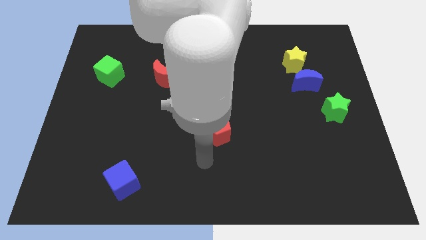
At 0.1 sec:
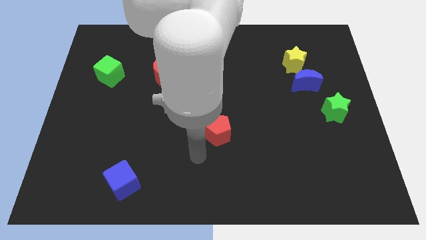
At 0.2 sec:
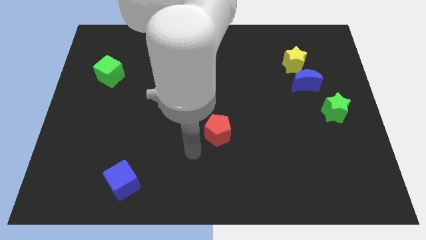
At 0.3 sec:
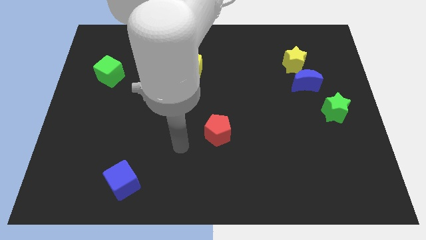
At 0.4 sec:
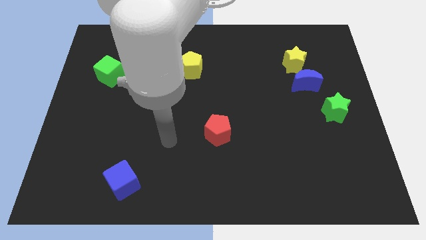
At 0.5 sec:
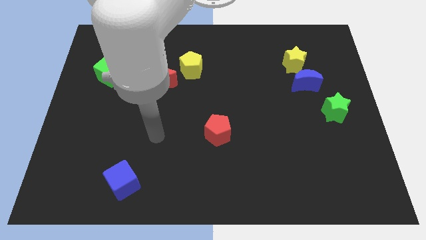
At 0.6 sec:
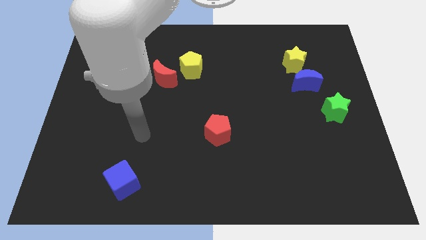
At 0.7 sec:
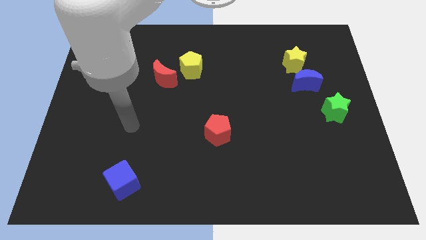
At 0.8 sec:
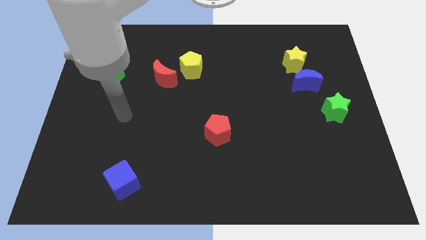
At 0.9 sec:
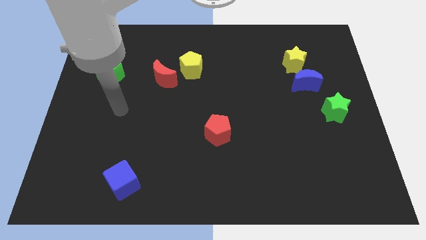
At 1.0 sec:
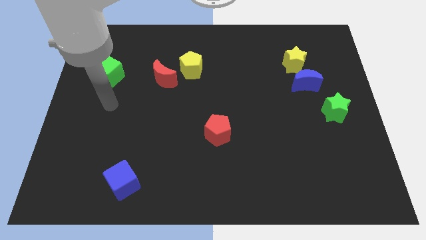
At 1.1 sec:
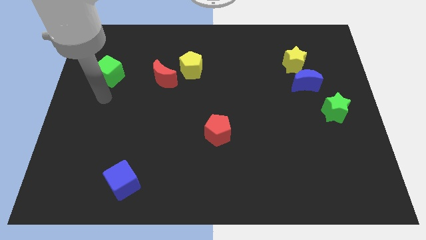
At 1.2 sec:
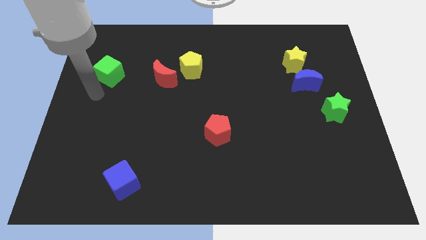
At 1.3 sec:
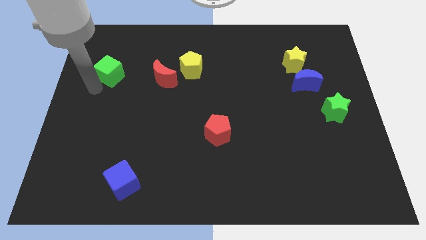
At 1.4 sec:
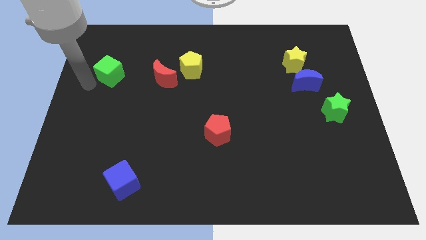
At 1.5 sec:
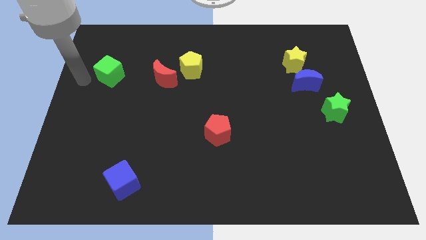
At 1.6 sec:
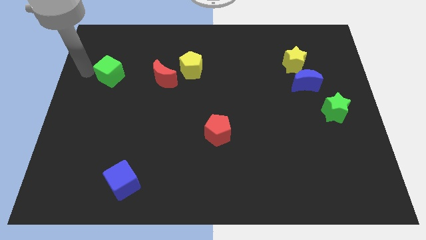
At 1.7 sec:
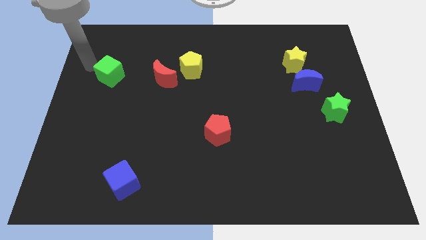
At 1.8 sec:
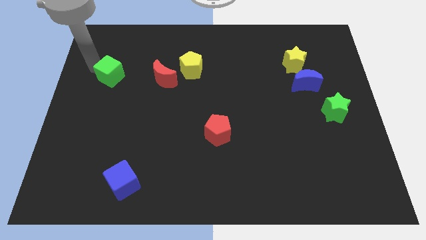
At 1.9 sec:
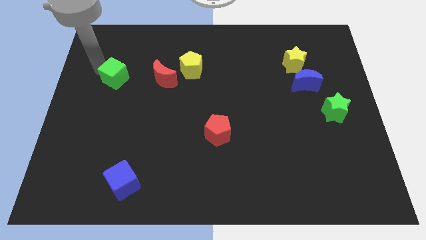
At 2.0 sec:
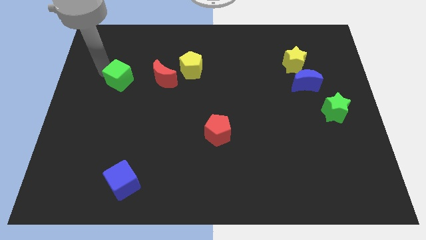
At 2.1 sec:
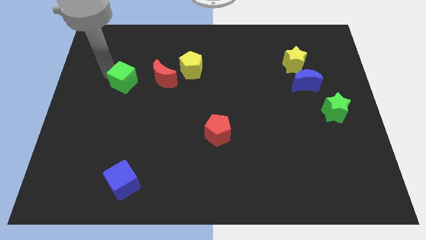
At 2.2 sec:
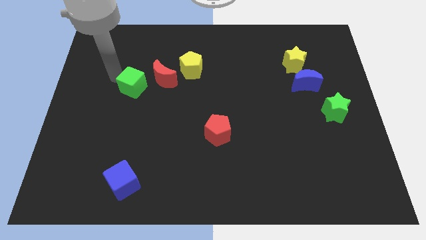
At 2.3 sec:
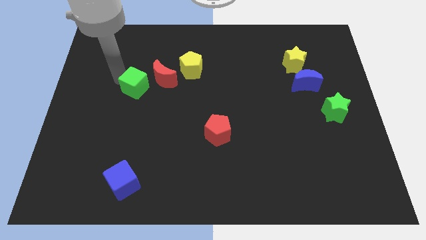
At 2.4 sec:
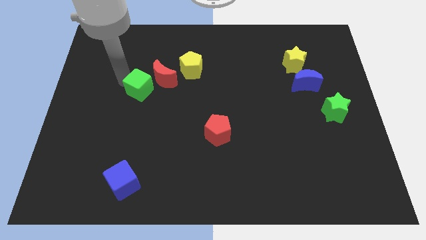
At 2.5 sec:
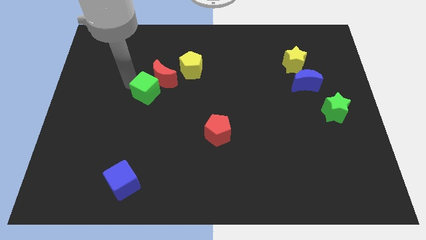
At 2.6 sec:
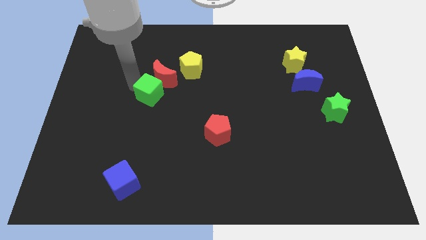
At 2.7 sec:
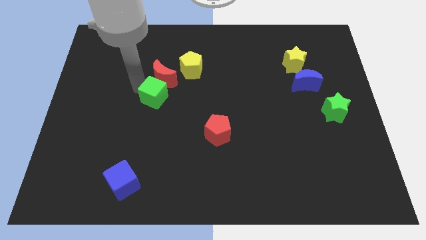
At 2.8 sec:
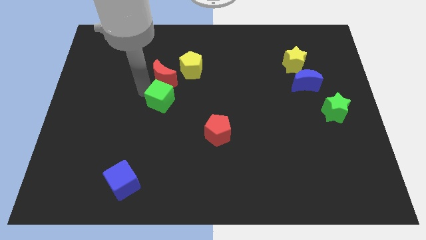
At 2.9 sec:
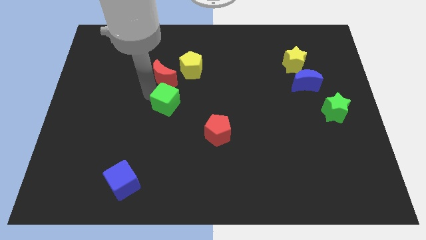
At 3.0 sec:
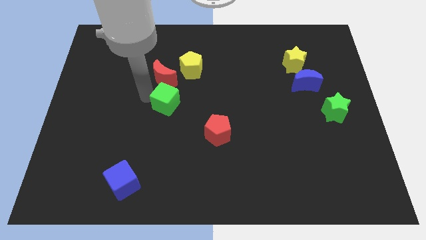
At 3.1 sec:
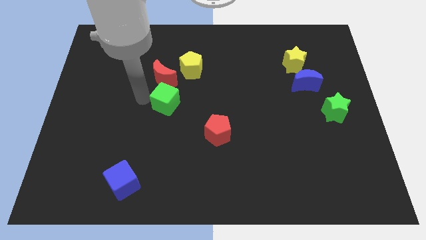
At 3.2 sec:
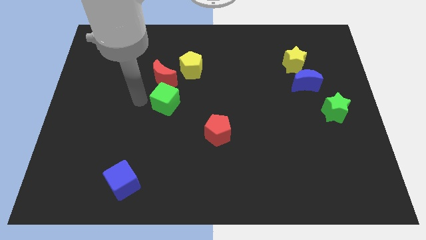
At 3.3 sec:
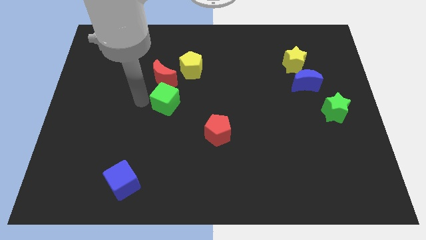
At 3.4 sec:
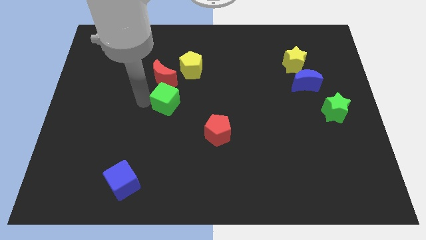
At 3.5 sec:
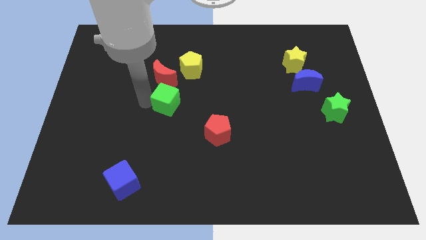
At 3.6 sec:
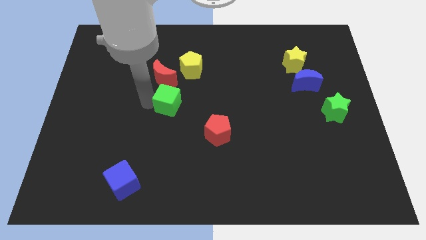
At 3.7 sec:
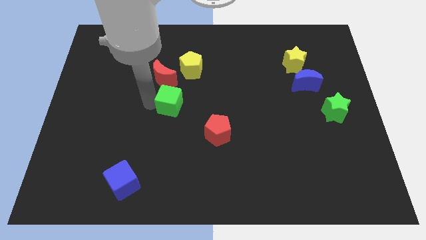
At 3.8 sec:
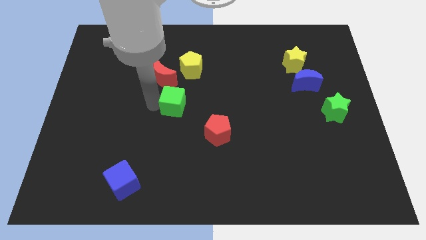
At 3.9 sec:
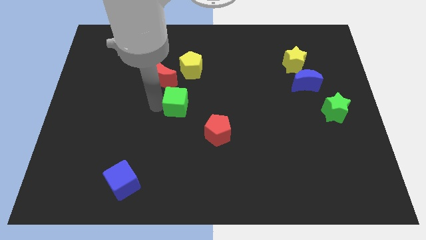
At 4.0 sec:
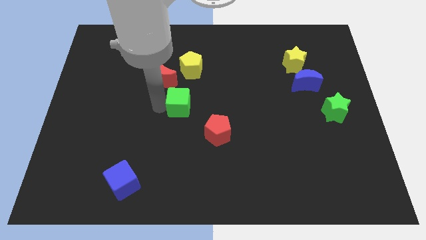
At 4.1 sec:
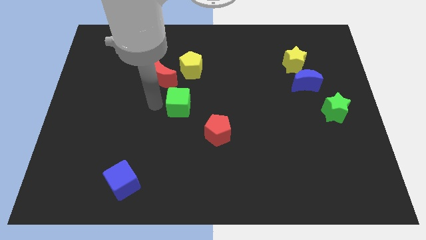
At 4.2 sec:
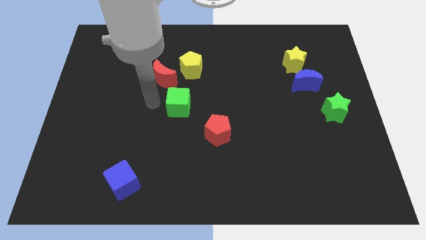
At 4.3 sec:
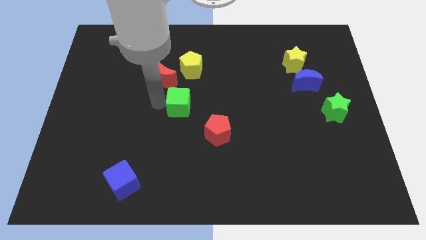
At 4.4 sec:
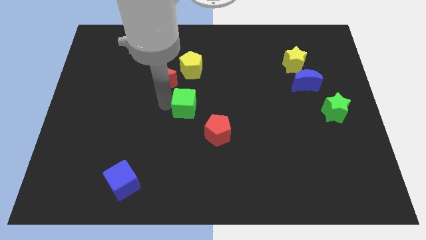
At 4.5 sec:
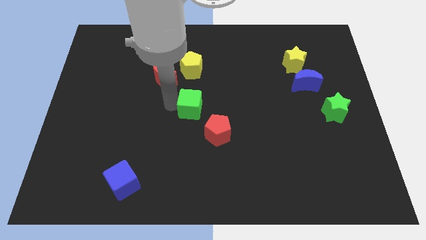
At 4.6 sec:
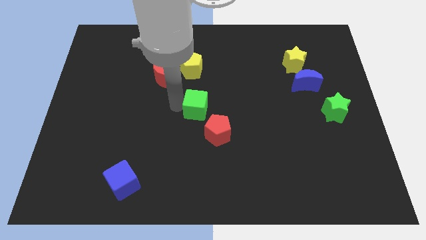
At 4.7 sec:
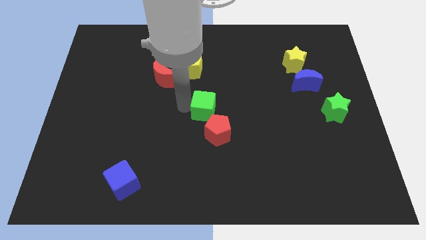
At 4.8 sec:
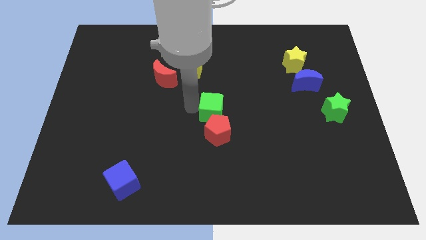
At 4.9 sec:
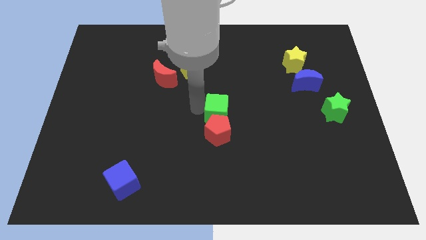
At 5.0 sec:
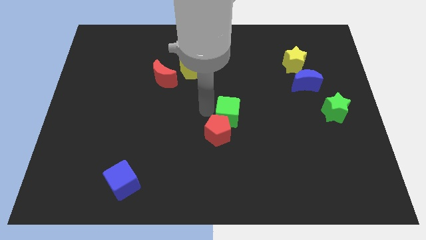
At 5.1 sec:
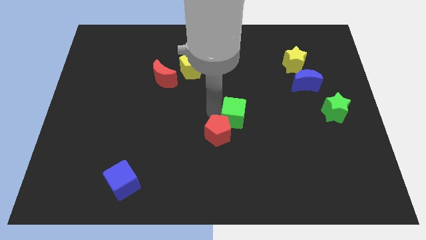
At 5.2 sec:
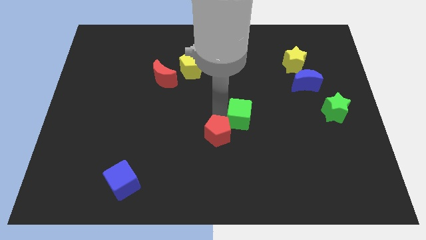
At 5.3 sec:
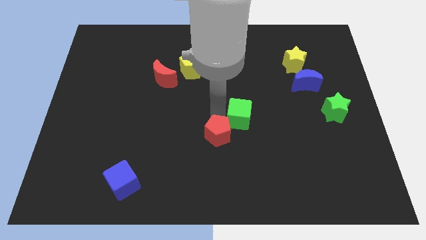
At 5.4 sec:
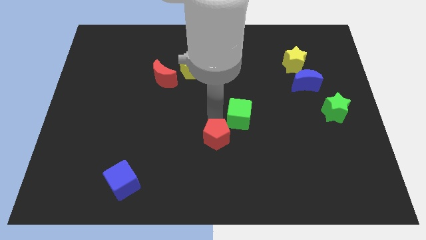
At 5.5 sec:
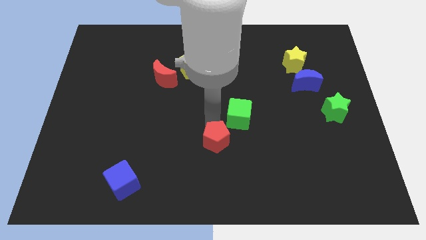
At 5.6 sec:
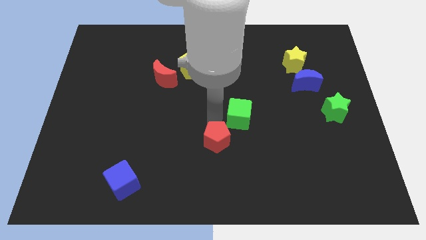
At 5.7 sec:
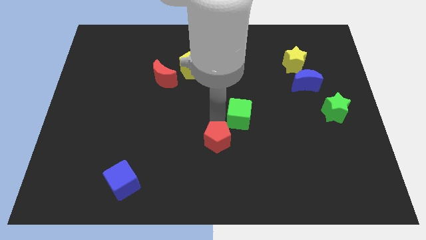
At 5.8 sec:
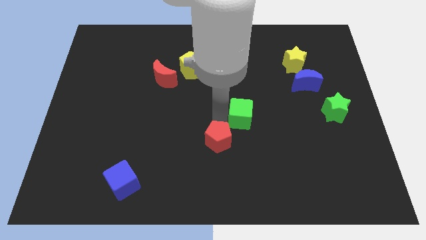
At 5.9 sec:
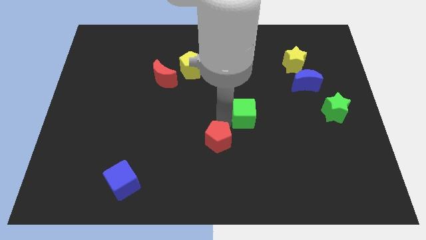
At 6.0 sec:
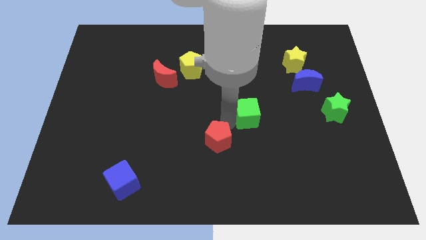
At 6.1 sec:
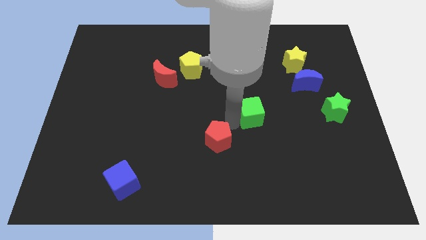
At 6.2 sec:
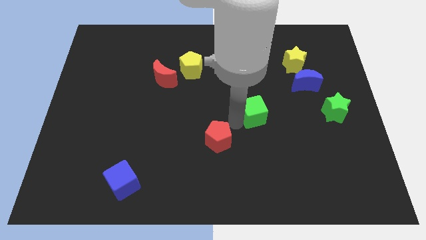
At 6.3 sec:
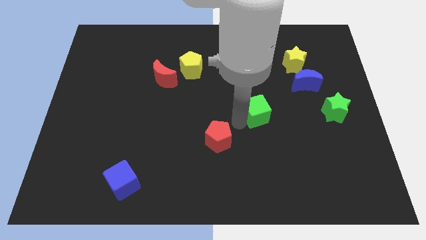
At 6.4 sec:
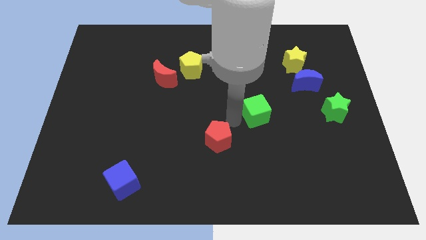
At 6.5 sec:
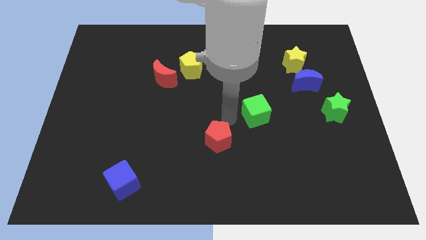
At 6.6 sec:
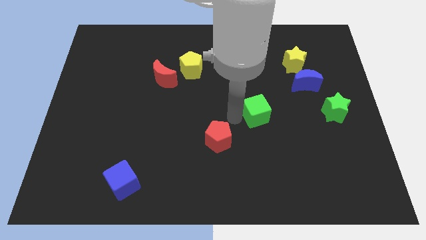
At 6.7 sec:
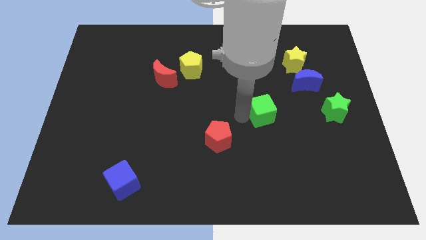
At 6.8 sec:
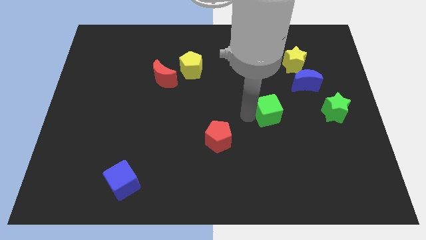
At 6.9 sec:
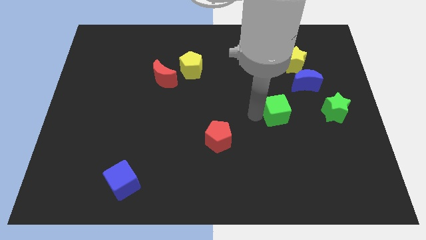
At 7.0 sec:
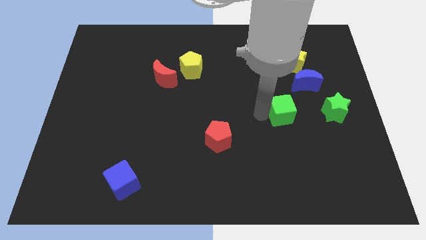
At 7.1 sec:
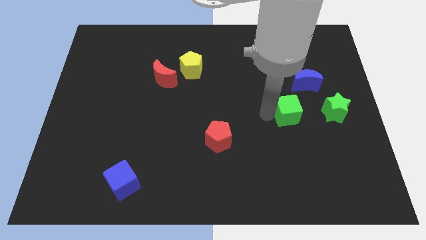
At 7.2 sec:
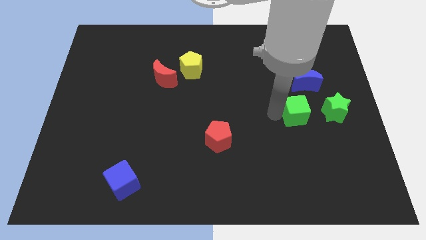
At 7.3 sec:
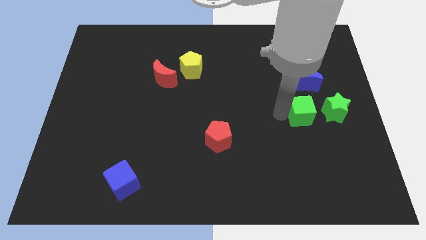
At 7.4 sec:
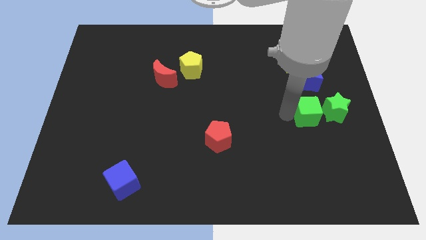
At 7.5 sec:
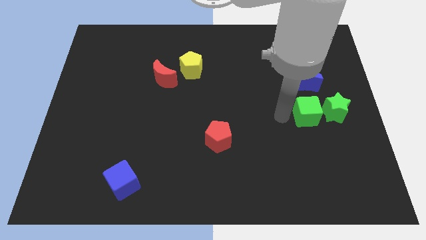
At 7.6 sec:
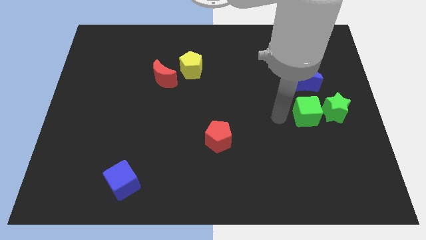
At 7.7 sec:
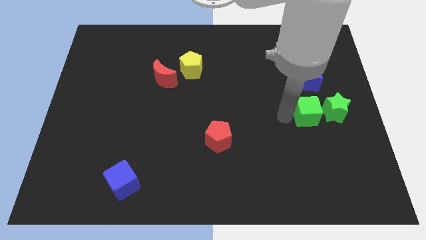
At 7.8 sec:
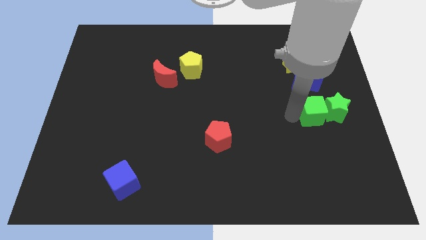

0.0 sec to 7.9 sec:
push the green cube towards the green star

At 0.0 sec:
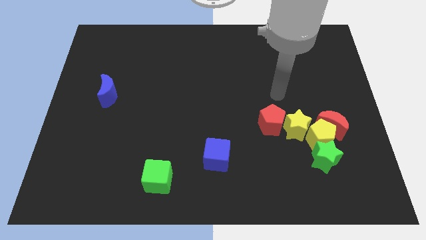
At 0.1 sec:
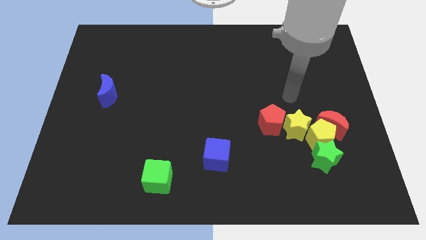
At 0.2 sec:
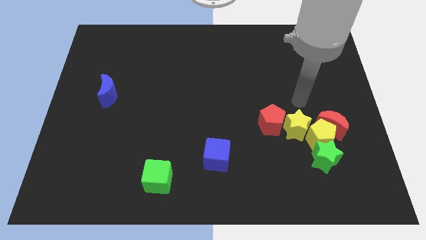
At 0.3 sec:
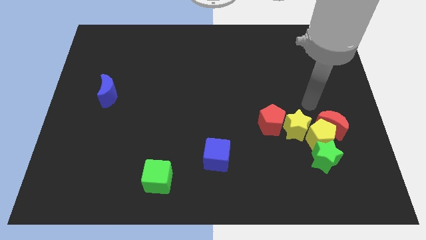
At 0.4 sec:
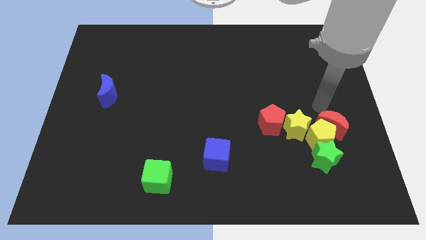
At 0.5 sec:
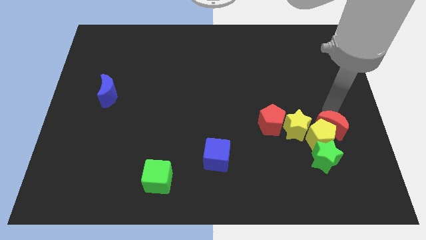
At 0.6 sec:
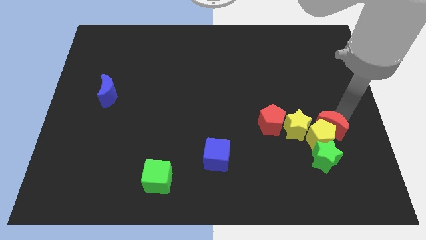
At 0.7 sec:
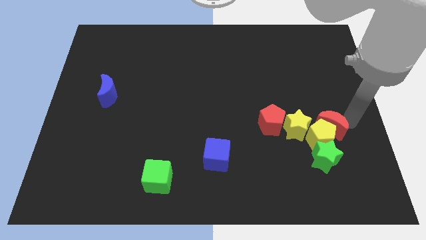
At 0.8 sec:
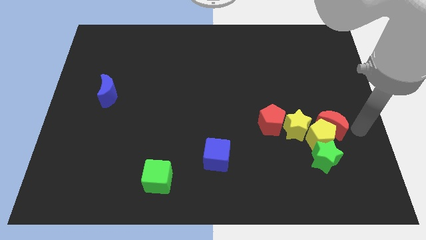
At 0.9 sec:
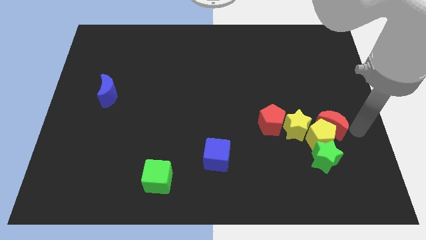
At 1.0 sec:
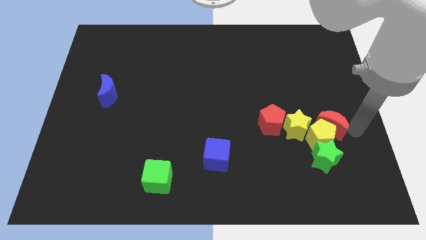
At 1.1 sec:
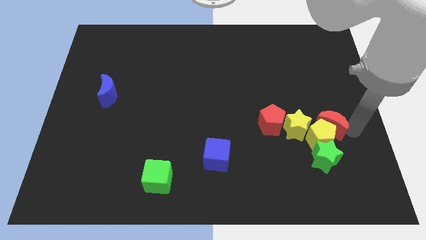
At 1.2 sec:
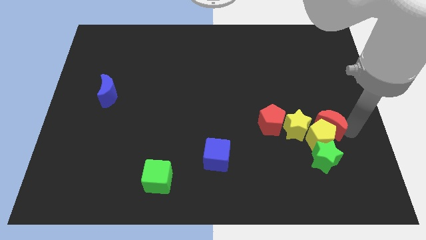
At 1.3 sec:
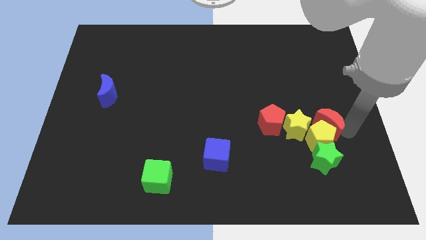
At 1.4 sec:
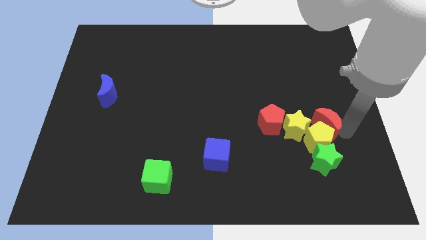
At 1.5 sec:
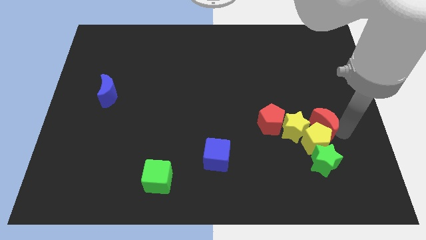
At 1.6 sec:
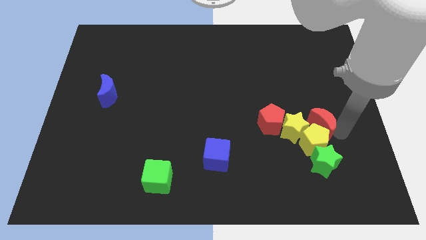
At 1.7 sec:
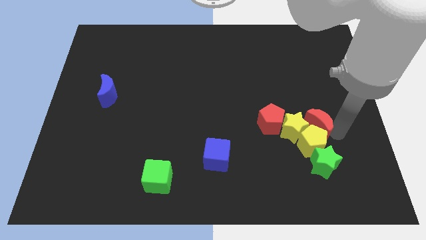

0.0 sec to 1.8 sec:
push the red moon close to the yellow star
